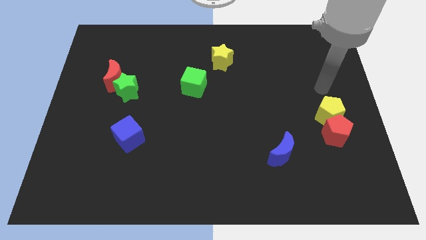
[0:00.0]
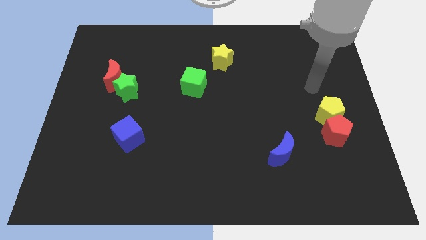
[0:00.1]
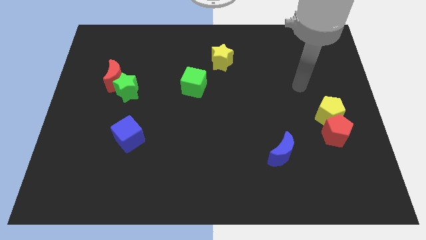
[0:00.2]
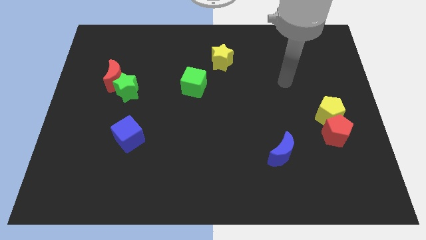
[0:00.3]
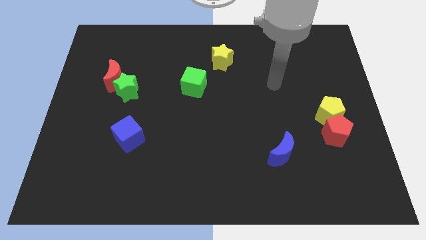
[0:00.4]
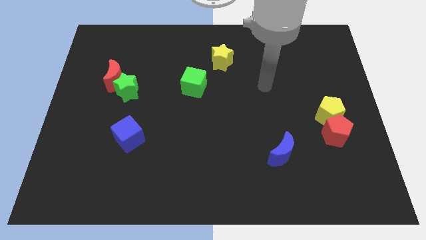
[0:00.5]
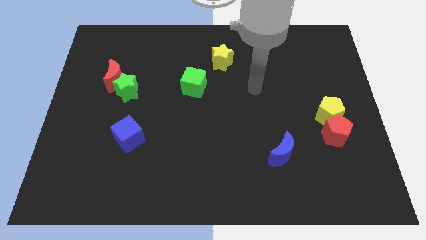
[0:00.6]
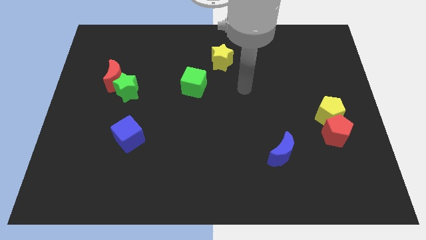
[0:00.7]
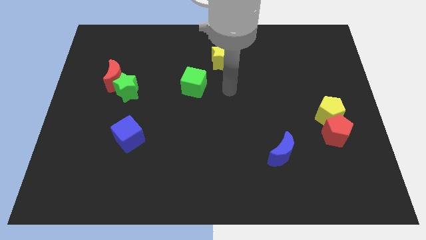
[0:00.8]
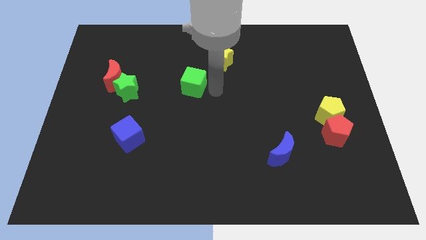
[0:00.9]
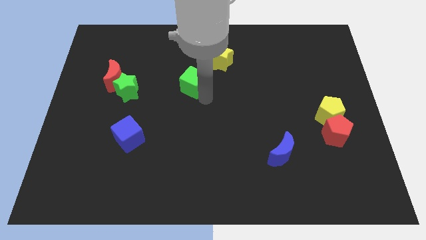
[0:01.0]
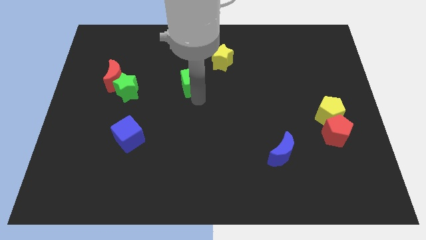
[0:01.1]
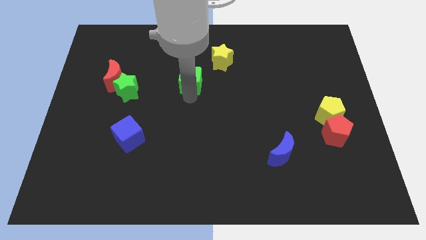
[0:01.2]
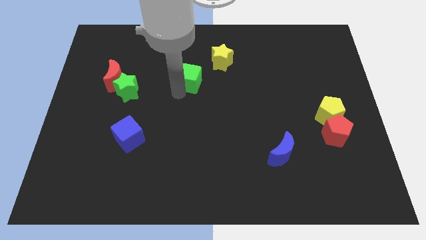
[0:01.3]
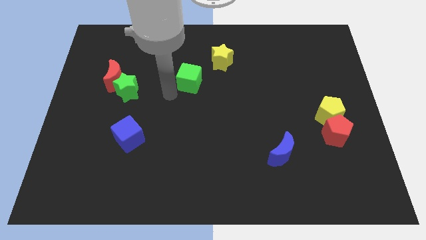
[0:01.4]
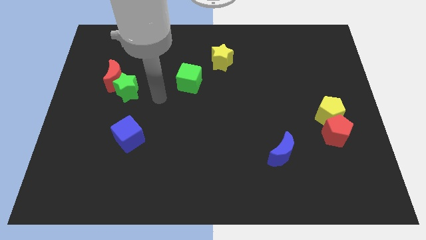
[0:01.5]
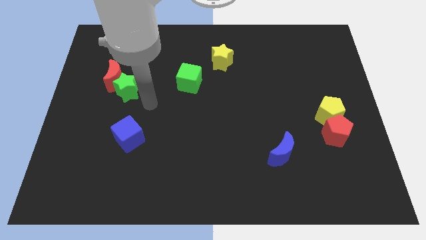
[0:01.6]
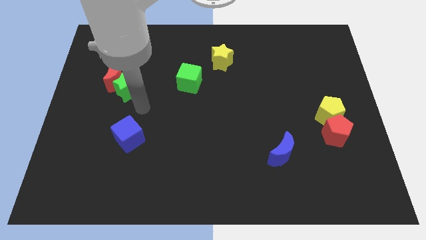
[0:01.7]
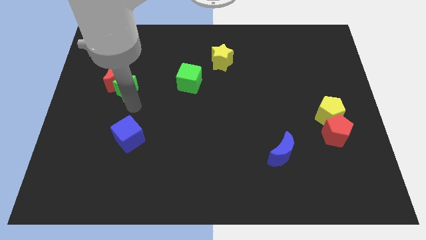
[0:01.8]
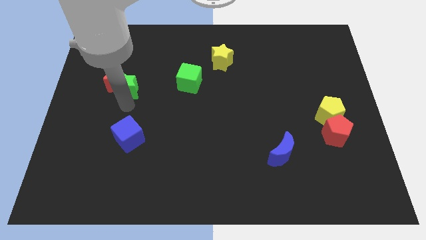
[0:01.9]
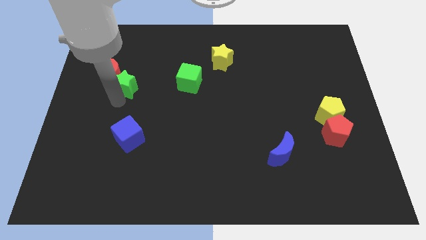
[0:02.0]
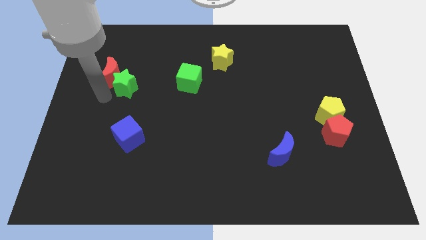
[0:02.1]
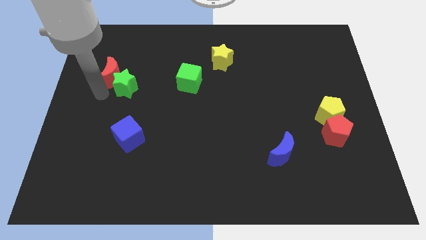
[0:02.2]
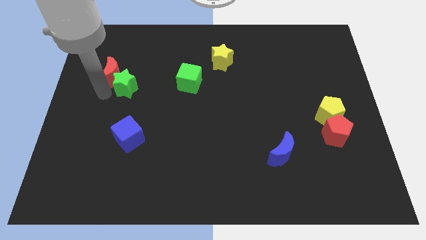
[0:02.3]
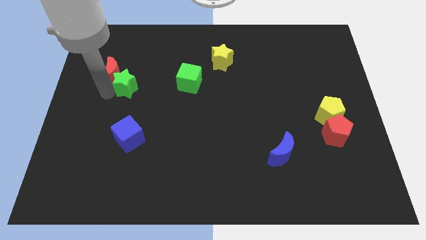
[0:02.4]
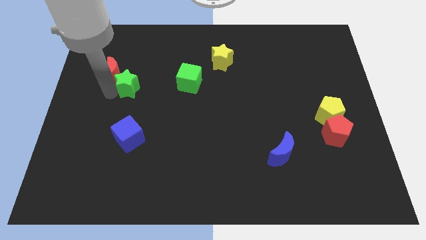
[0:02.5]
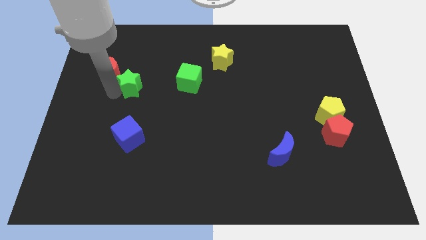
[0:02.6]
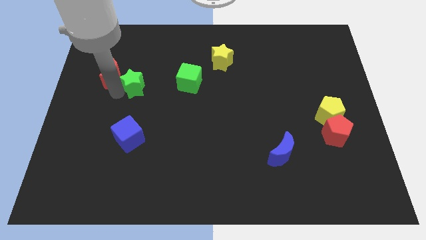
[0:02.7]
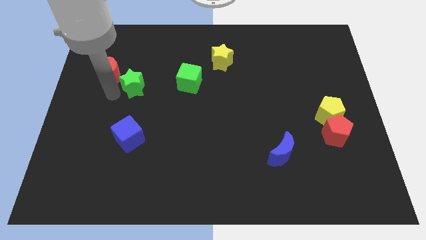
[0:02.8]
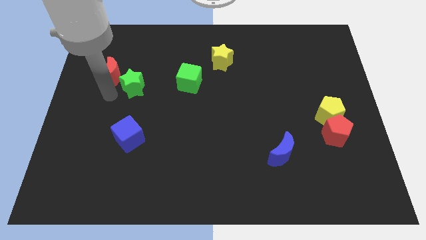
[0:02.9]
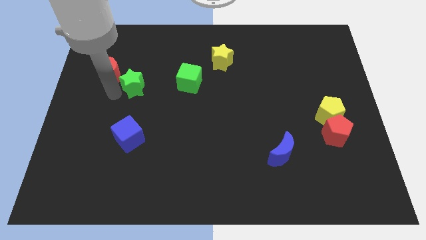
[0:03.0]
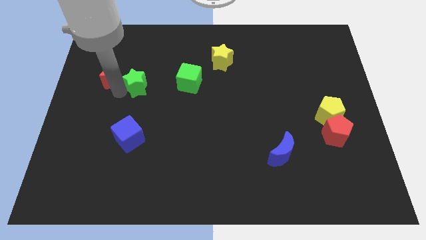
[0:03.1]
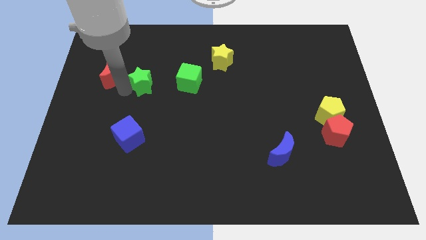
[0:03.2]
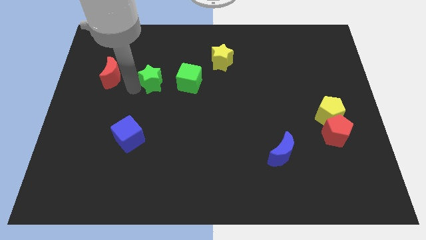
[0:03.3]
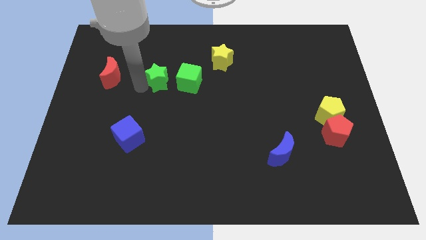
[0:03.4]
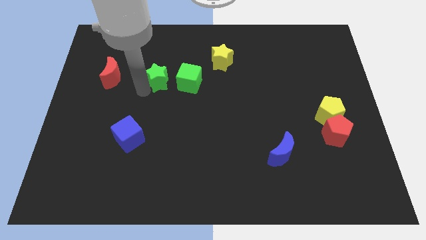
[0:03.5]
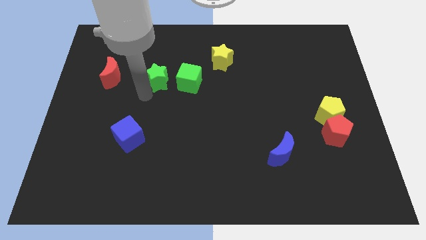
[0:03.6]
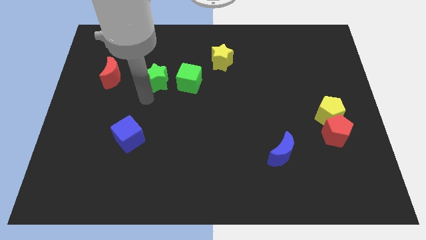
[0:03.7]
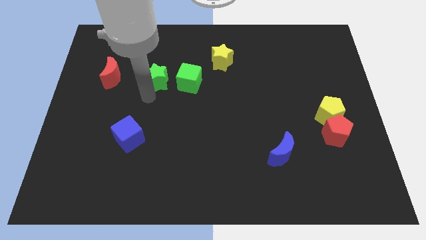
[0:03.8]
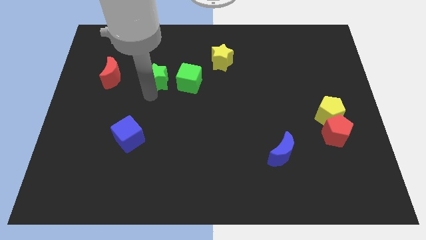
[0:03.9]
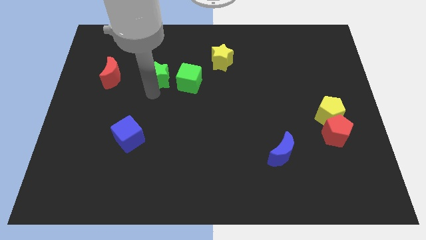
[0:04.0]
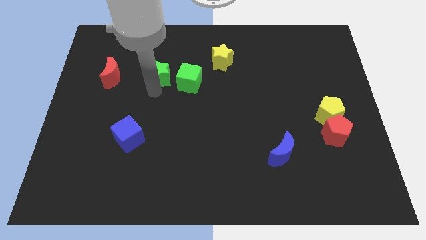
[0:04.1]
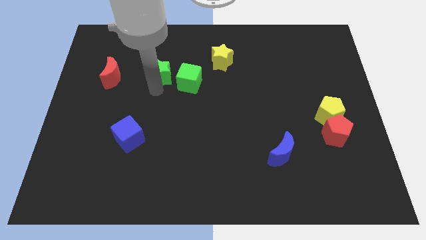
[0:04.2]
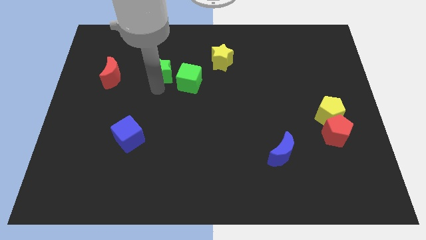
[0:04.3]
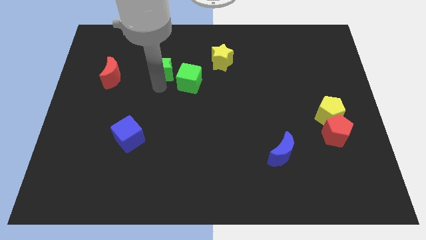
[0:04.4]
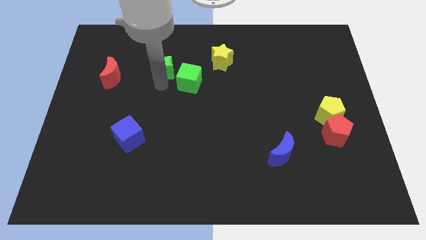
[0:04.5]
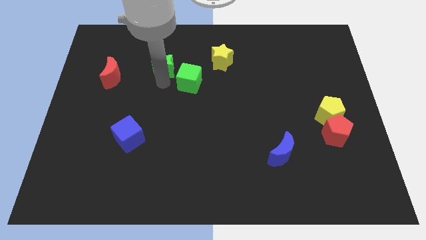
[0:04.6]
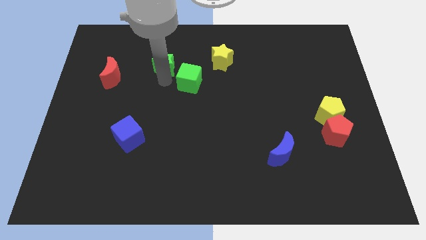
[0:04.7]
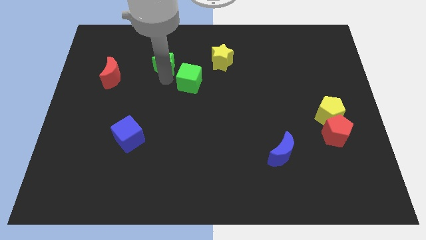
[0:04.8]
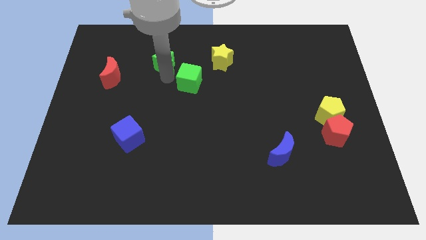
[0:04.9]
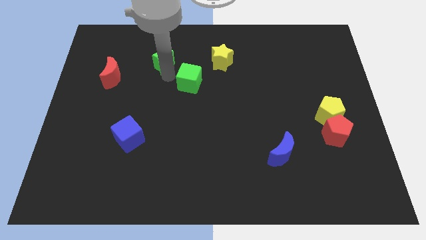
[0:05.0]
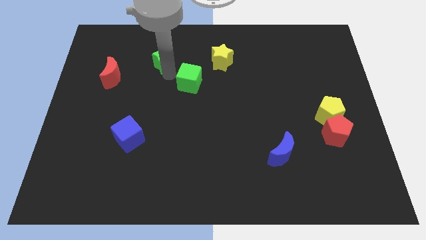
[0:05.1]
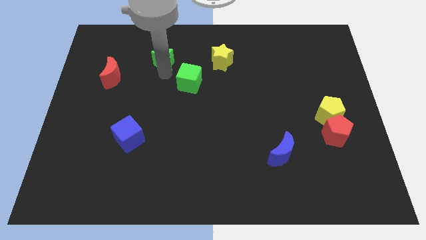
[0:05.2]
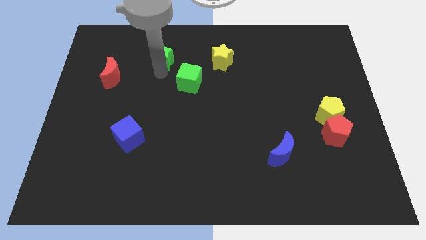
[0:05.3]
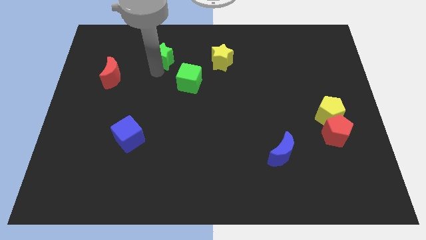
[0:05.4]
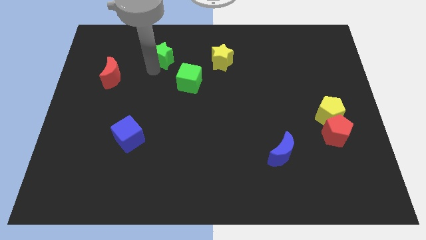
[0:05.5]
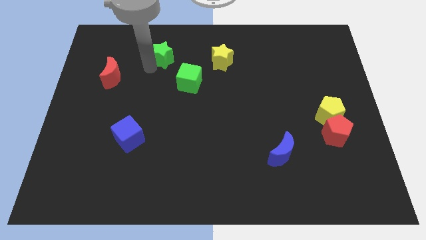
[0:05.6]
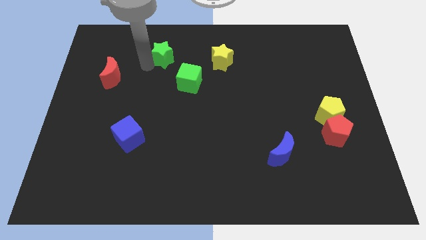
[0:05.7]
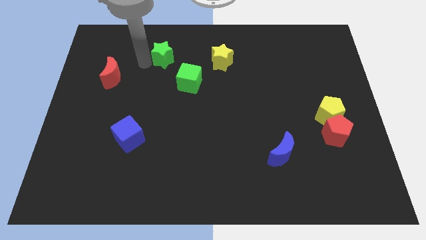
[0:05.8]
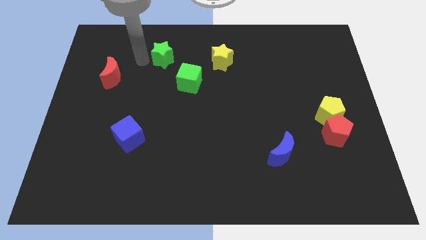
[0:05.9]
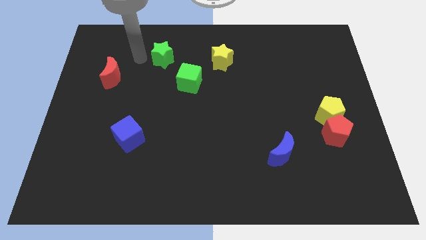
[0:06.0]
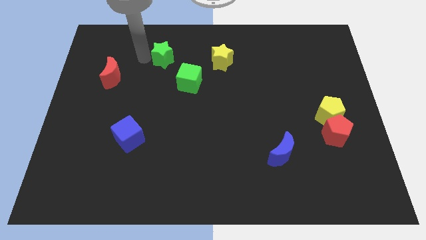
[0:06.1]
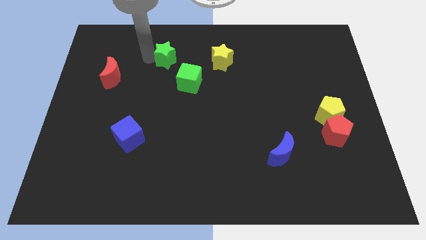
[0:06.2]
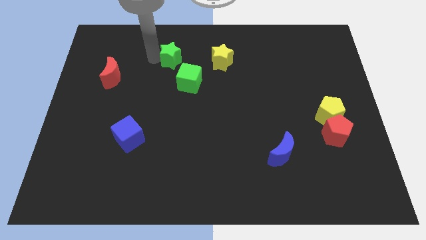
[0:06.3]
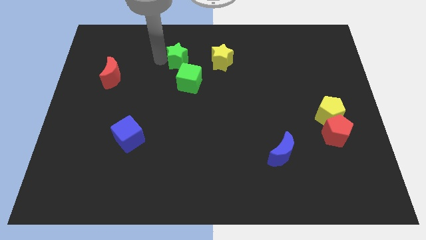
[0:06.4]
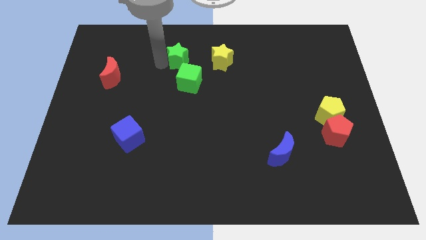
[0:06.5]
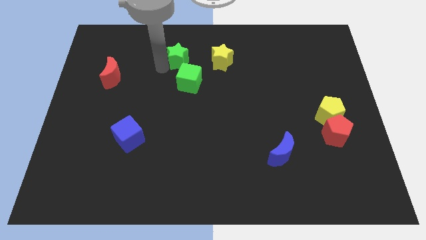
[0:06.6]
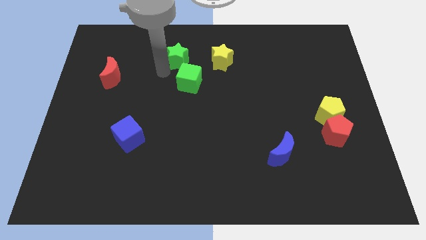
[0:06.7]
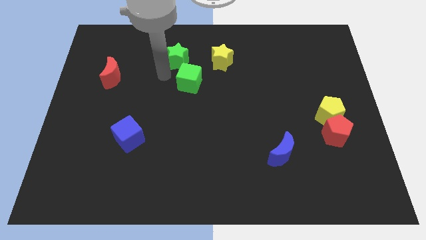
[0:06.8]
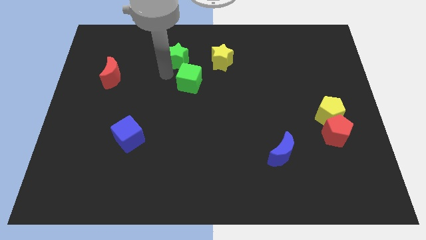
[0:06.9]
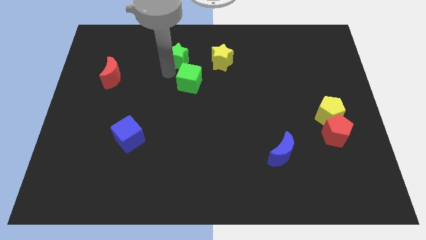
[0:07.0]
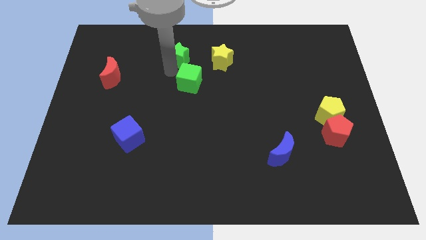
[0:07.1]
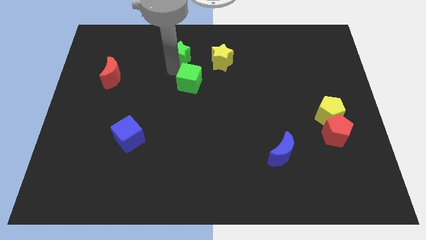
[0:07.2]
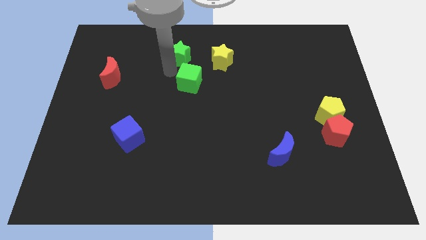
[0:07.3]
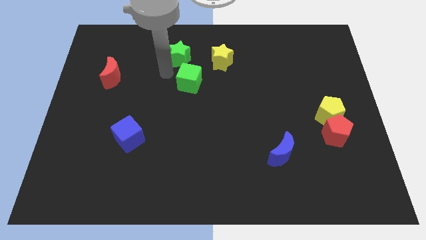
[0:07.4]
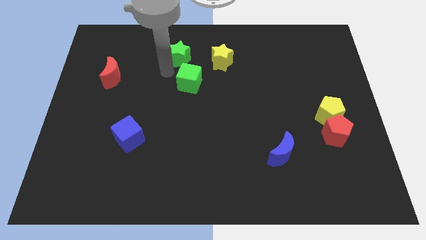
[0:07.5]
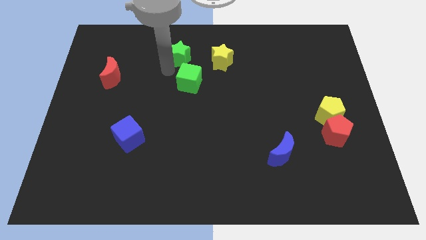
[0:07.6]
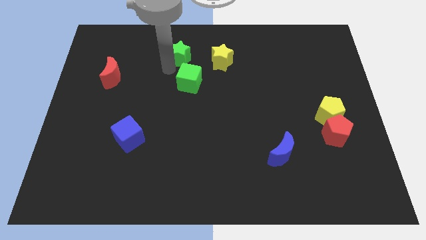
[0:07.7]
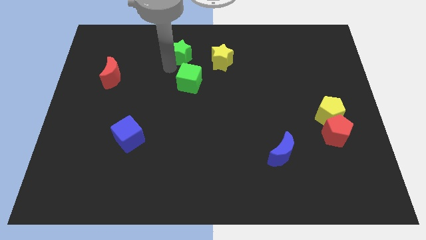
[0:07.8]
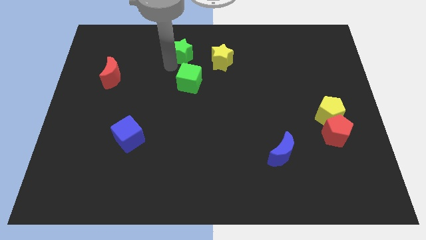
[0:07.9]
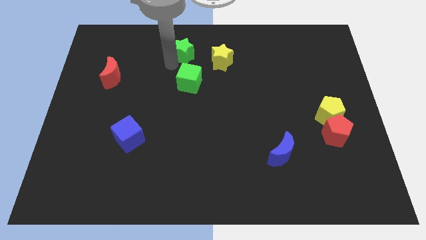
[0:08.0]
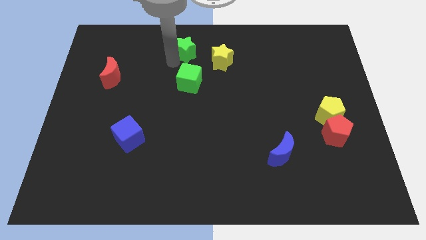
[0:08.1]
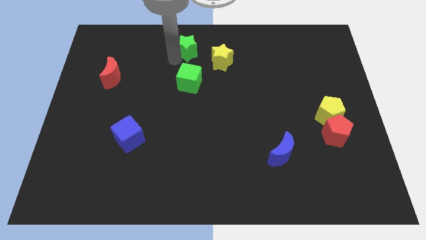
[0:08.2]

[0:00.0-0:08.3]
put the green star to the top
